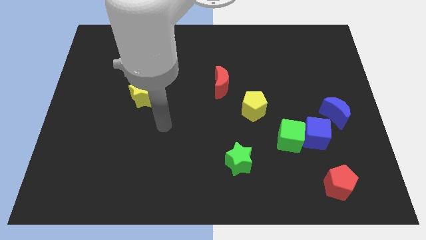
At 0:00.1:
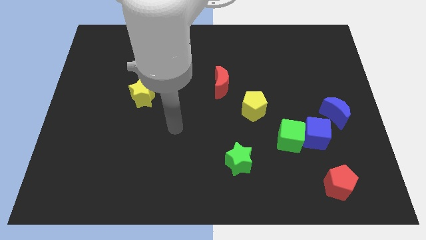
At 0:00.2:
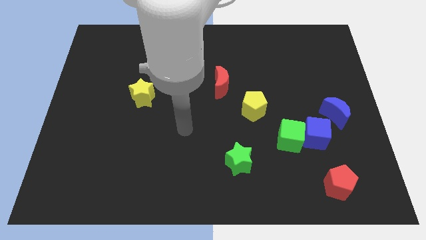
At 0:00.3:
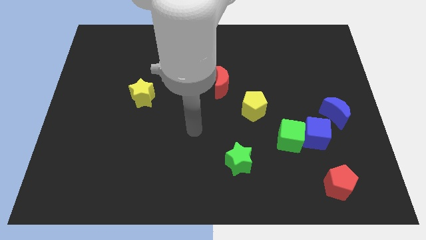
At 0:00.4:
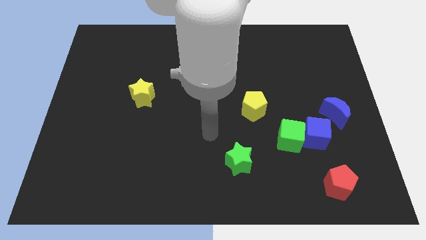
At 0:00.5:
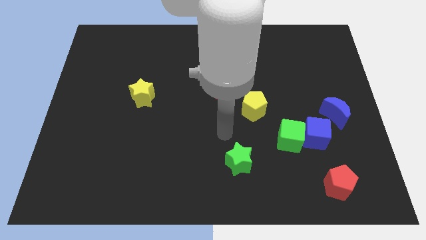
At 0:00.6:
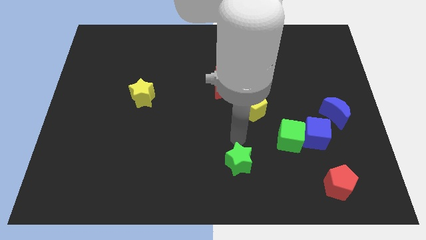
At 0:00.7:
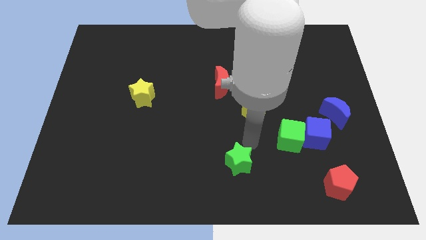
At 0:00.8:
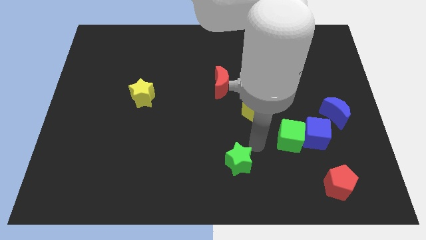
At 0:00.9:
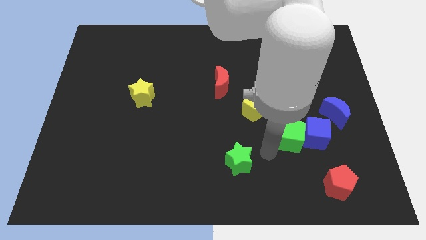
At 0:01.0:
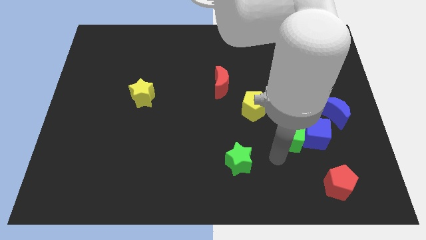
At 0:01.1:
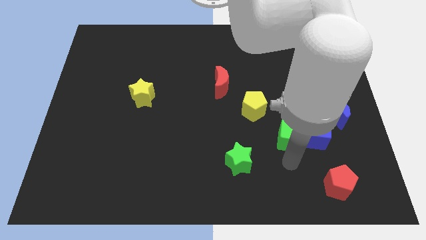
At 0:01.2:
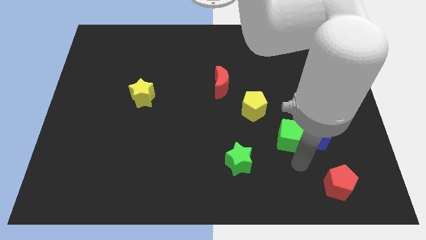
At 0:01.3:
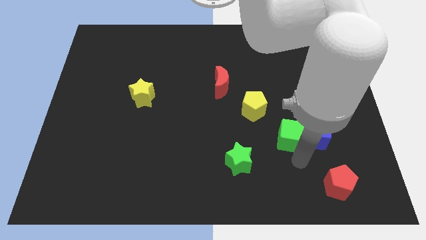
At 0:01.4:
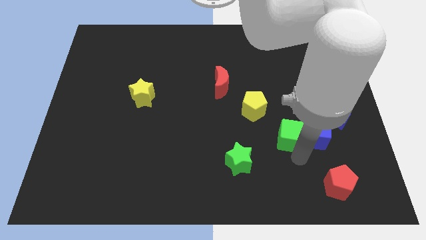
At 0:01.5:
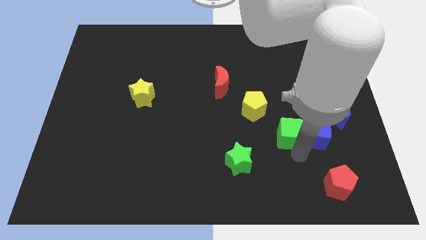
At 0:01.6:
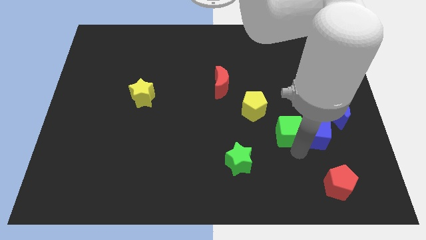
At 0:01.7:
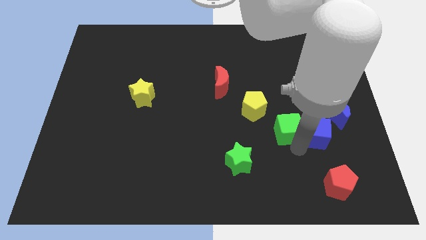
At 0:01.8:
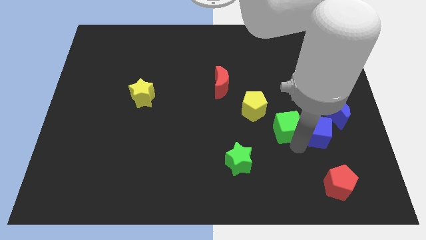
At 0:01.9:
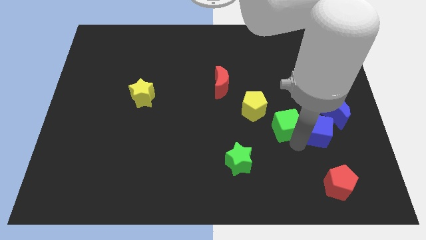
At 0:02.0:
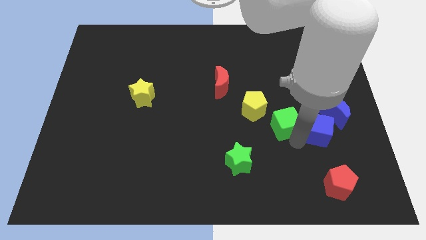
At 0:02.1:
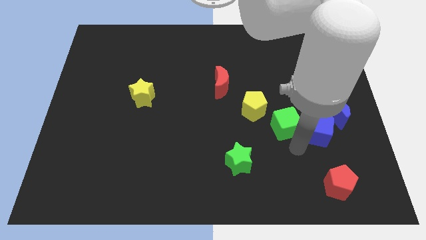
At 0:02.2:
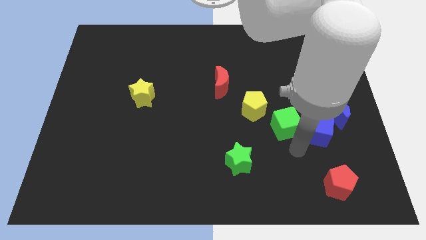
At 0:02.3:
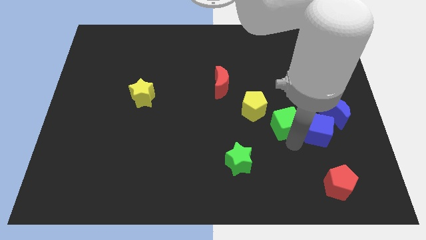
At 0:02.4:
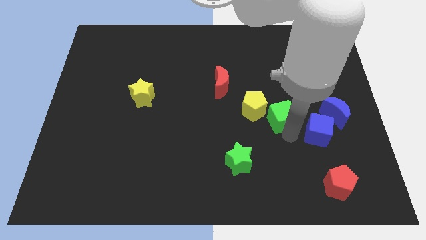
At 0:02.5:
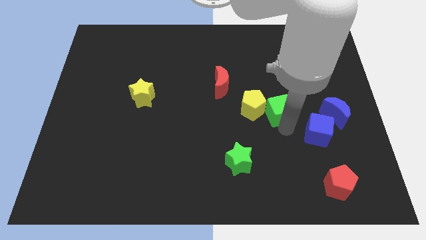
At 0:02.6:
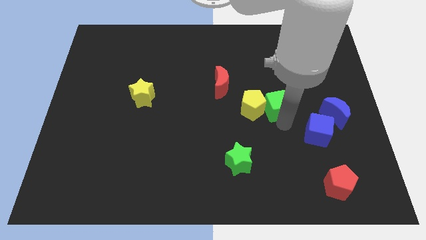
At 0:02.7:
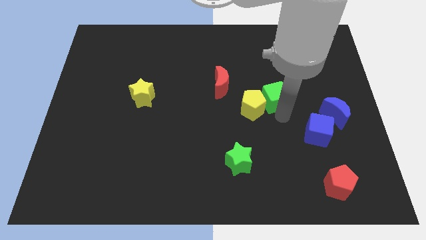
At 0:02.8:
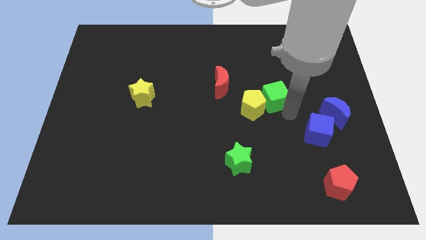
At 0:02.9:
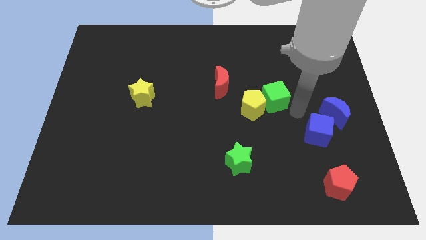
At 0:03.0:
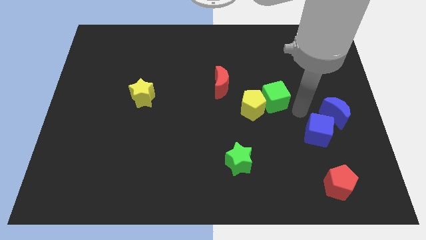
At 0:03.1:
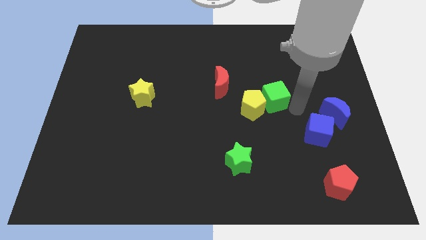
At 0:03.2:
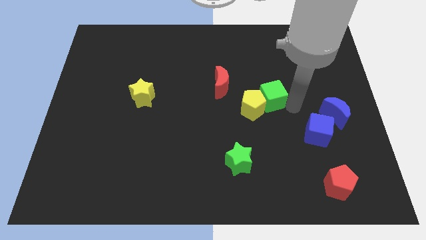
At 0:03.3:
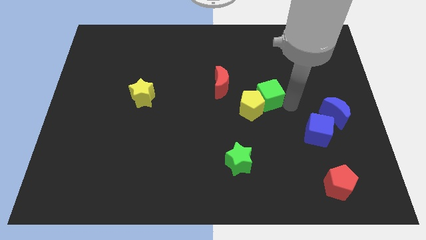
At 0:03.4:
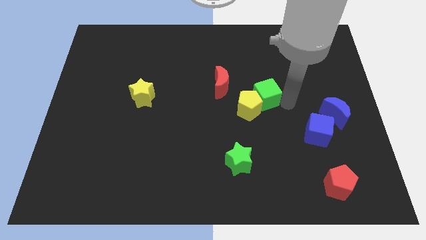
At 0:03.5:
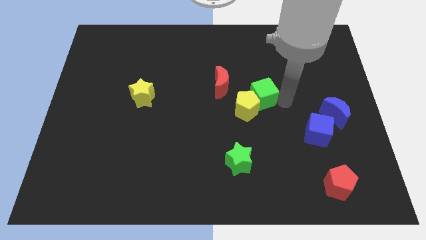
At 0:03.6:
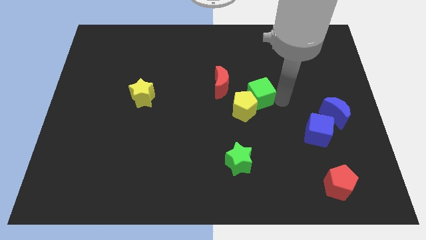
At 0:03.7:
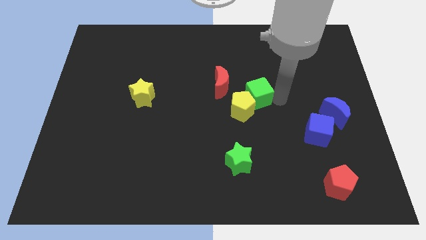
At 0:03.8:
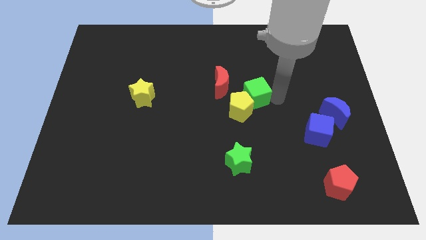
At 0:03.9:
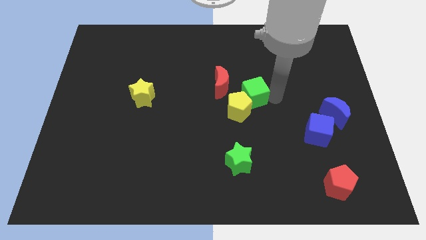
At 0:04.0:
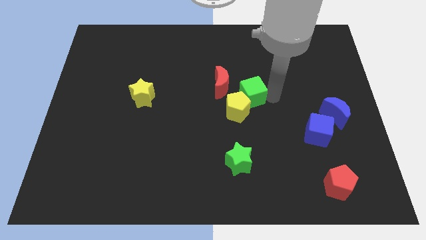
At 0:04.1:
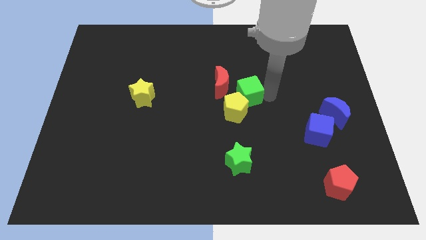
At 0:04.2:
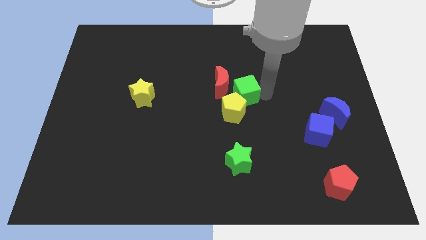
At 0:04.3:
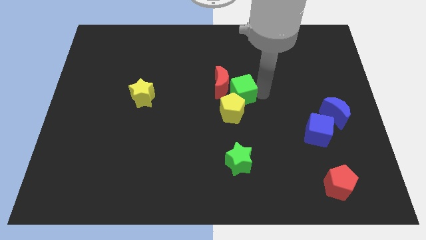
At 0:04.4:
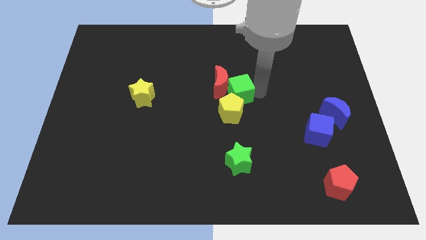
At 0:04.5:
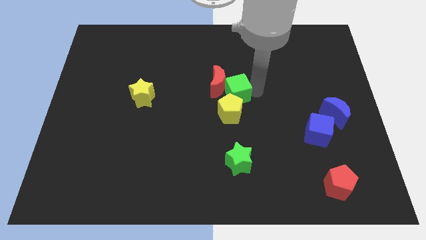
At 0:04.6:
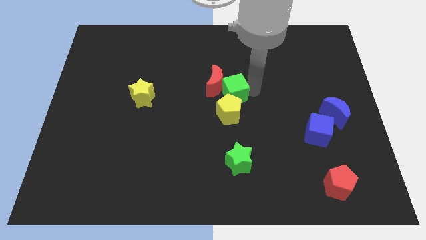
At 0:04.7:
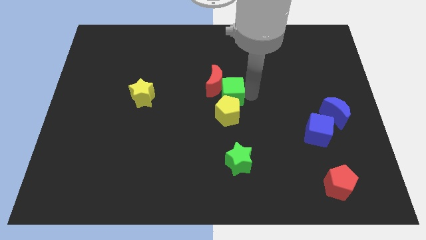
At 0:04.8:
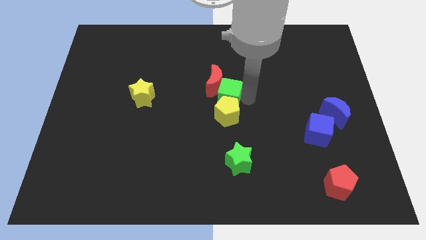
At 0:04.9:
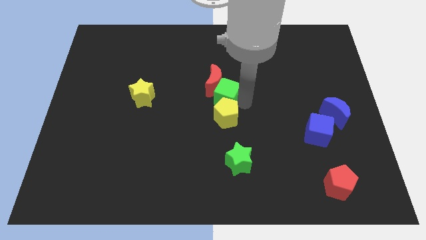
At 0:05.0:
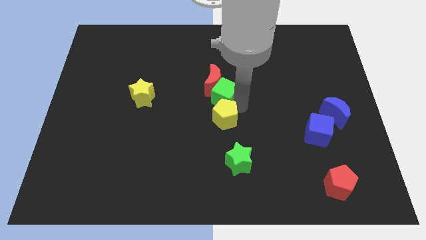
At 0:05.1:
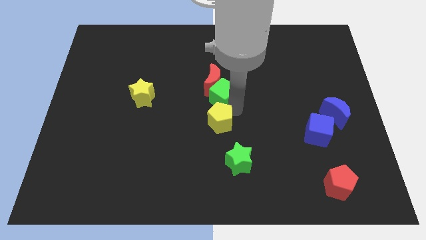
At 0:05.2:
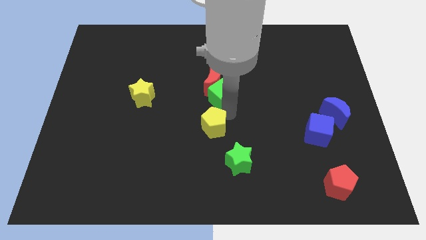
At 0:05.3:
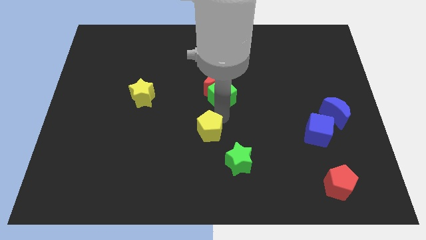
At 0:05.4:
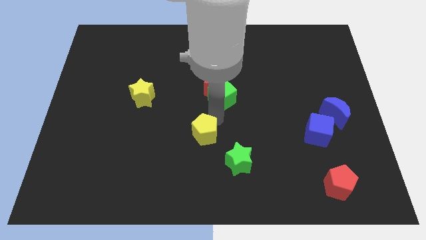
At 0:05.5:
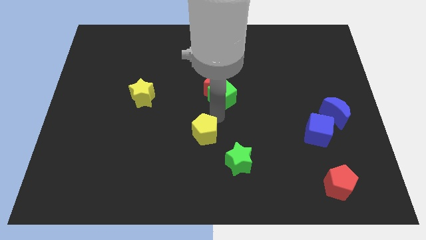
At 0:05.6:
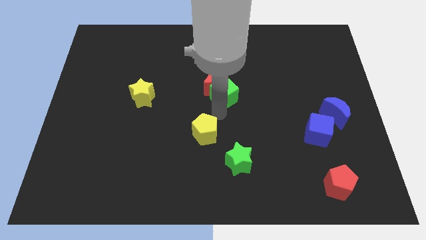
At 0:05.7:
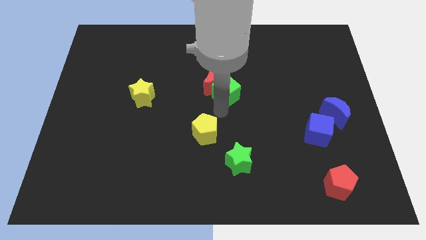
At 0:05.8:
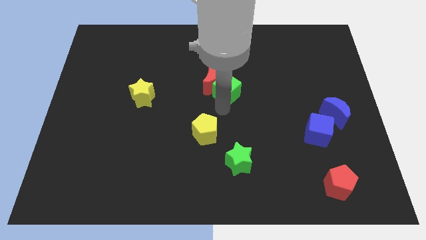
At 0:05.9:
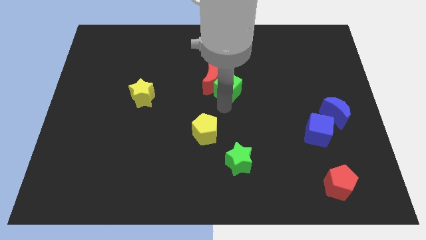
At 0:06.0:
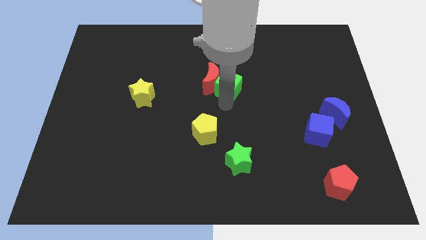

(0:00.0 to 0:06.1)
slide the green cube upwards and left diagonally

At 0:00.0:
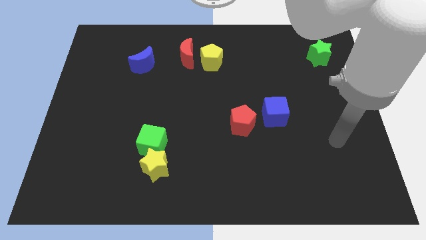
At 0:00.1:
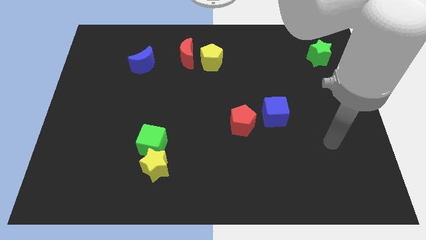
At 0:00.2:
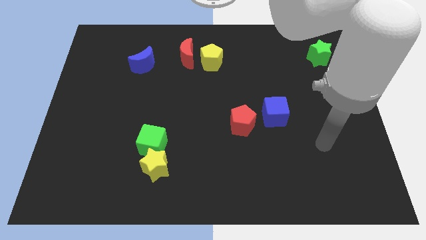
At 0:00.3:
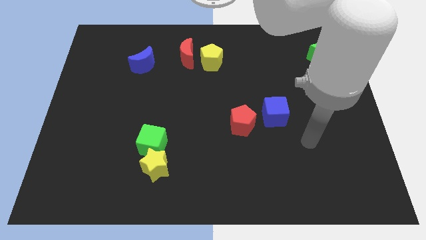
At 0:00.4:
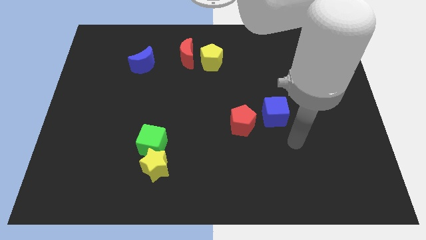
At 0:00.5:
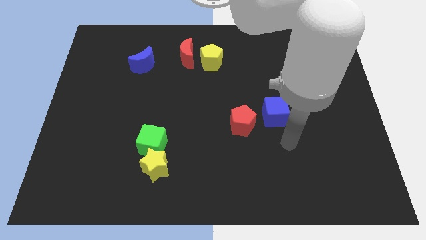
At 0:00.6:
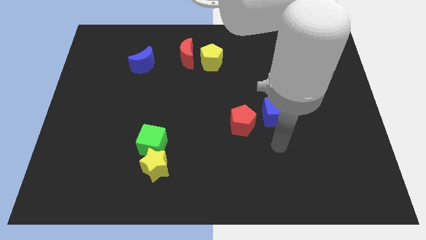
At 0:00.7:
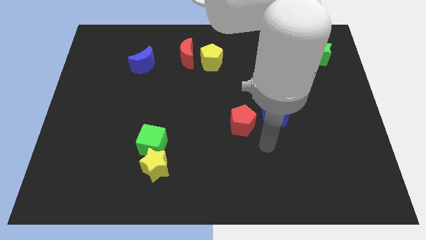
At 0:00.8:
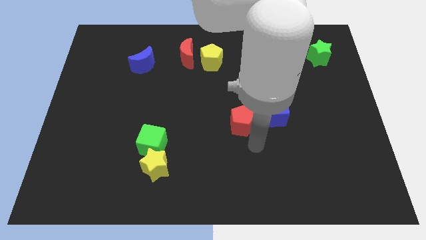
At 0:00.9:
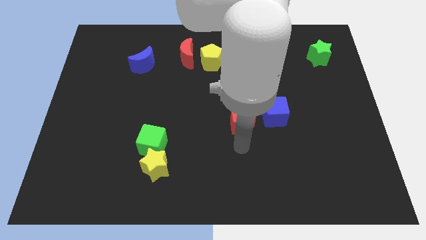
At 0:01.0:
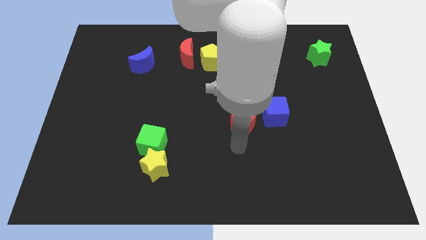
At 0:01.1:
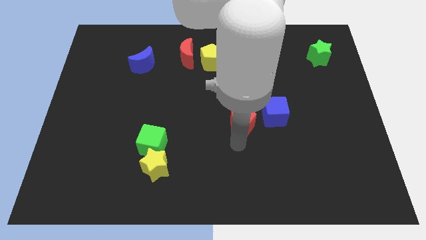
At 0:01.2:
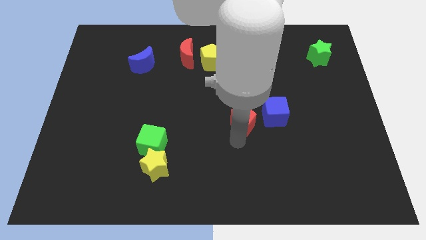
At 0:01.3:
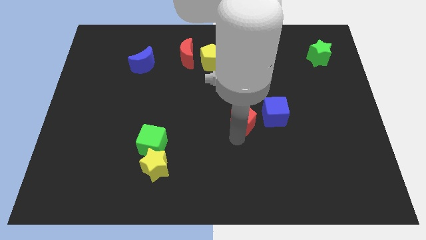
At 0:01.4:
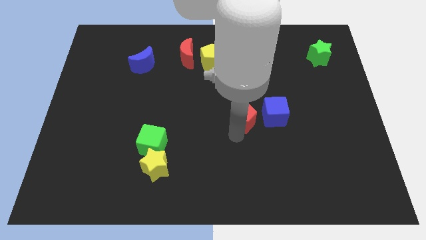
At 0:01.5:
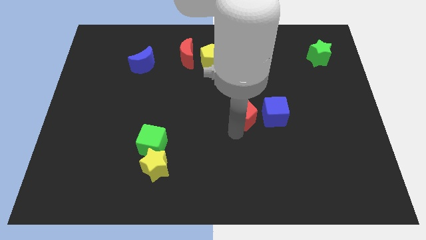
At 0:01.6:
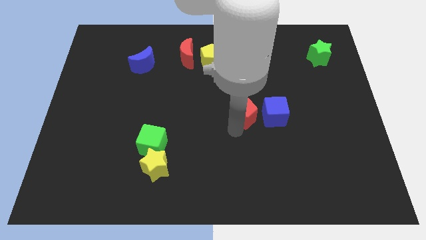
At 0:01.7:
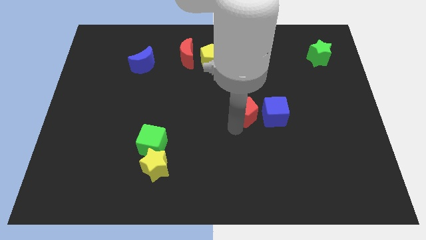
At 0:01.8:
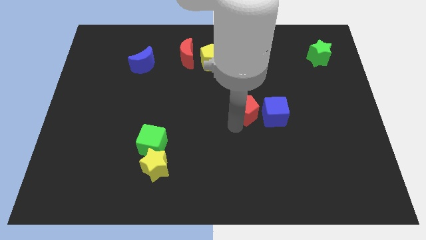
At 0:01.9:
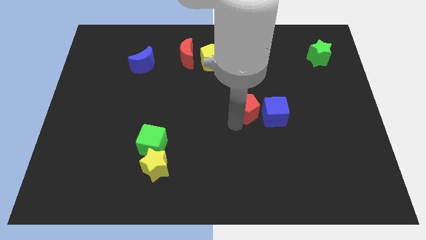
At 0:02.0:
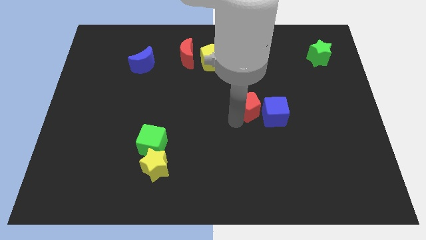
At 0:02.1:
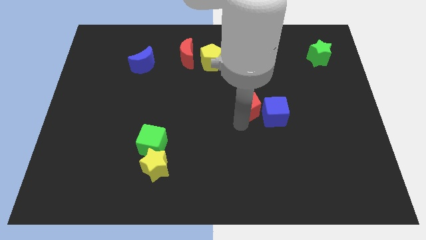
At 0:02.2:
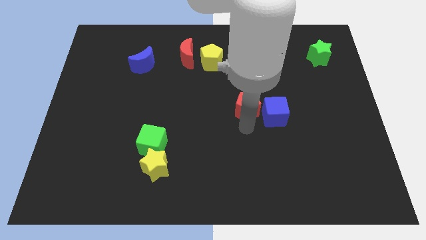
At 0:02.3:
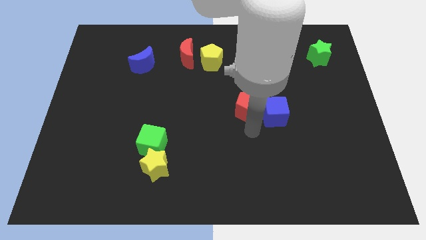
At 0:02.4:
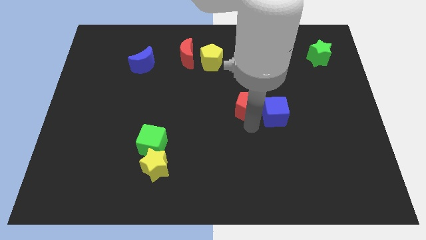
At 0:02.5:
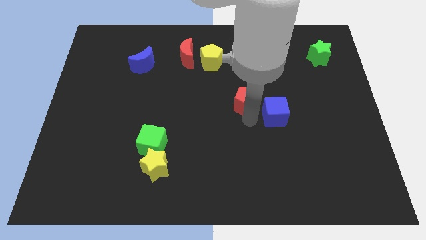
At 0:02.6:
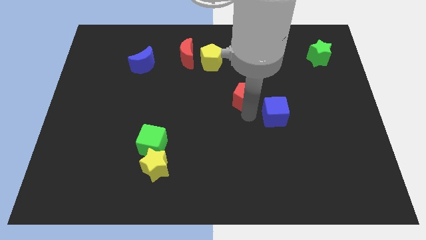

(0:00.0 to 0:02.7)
push the red pentagon upwards a bit
